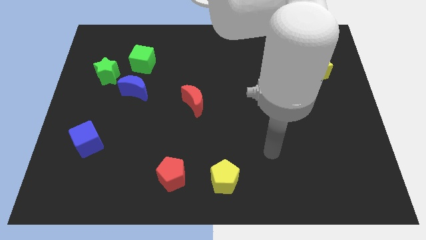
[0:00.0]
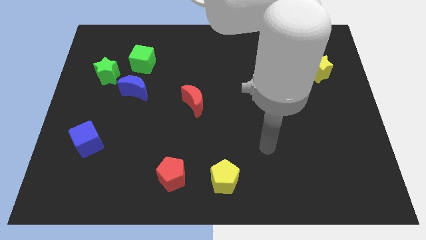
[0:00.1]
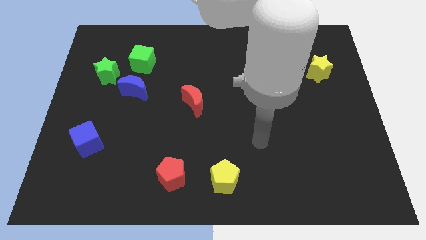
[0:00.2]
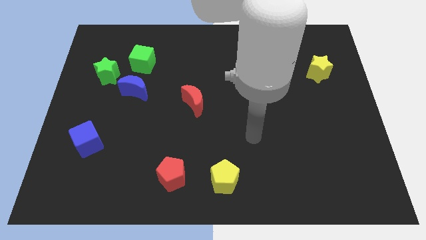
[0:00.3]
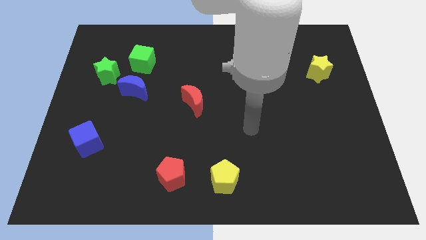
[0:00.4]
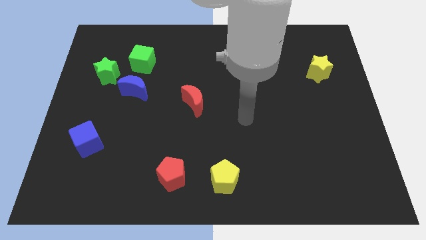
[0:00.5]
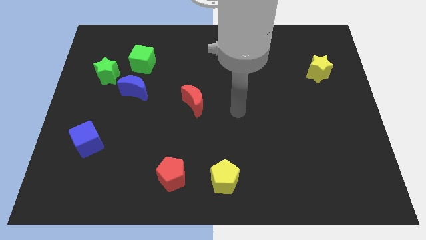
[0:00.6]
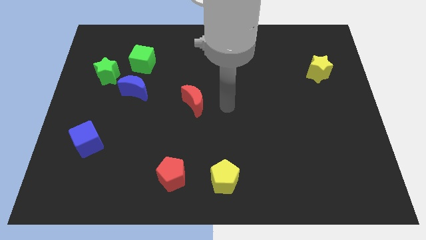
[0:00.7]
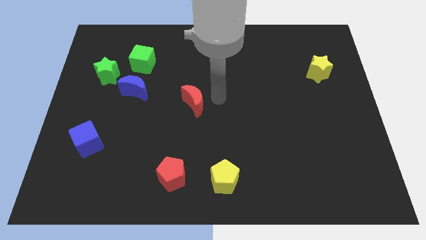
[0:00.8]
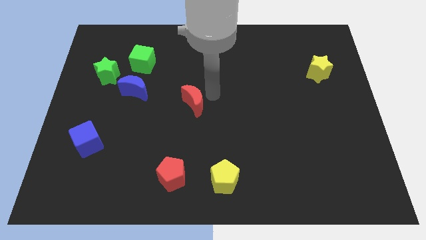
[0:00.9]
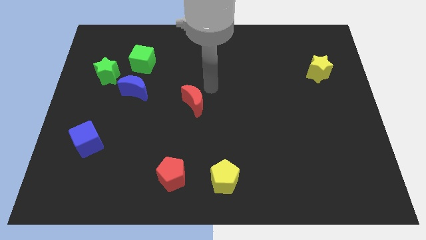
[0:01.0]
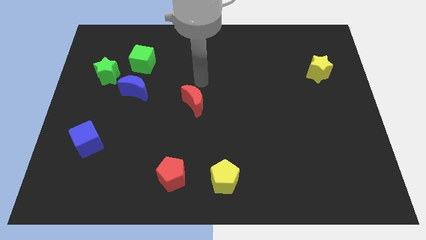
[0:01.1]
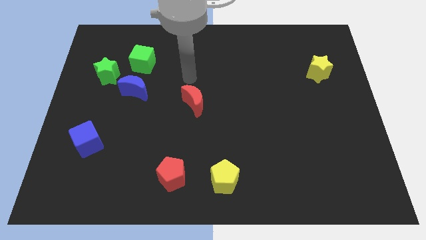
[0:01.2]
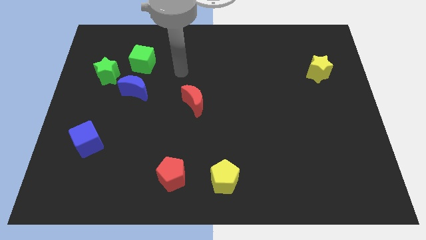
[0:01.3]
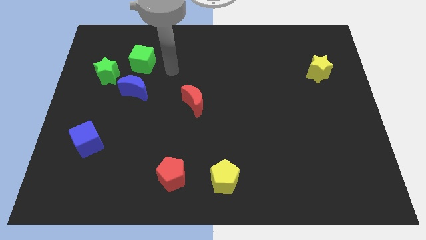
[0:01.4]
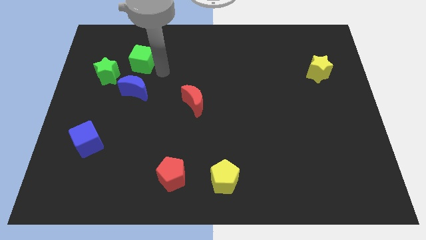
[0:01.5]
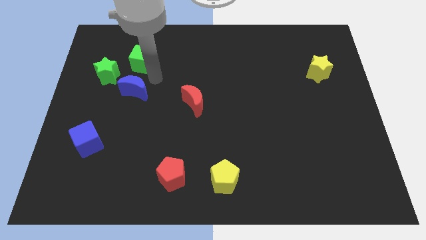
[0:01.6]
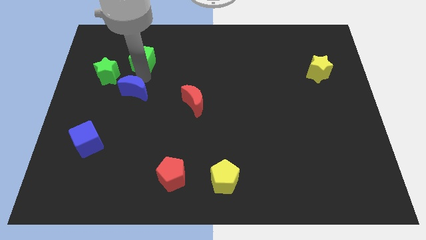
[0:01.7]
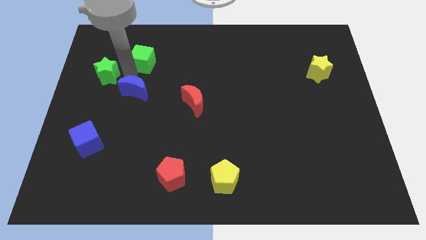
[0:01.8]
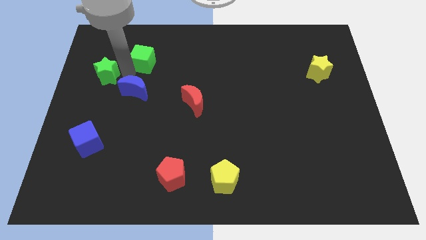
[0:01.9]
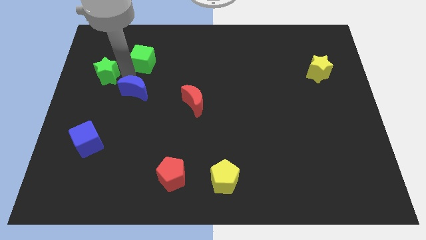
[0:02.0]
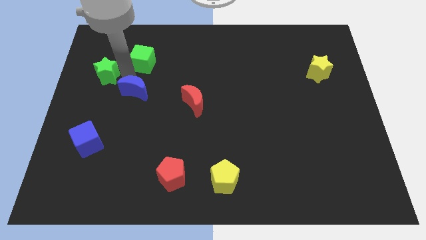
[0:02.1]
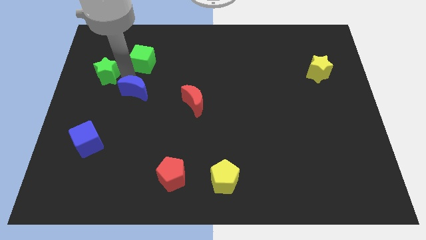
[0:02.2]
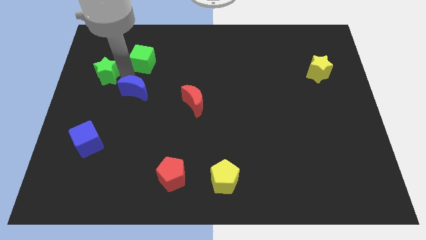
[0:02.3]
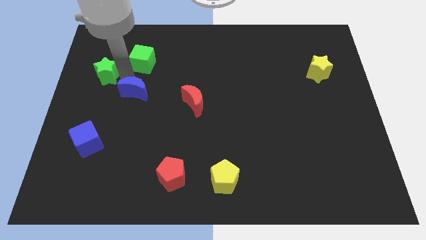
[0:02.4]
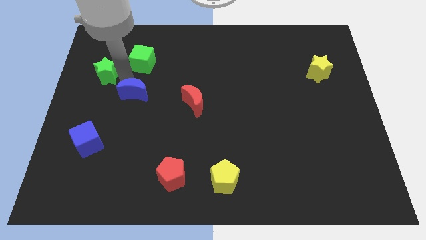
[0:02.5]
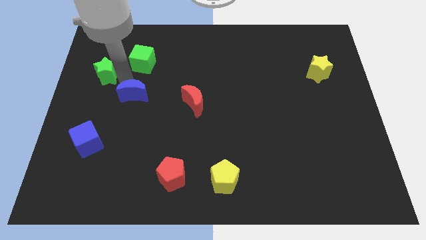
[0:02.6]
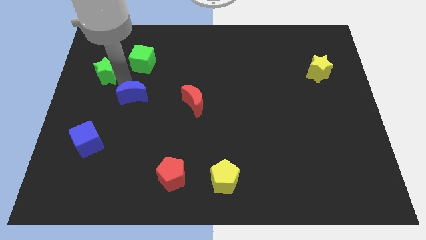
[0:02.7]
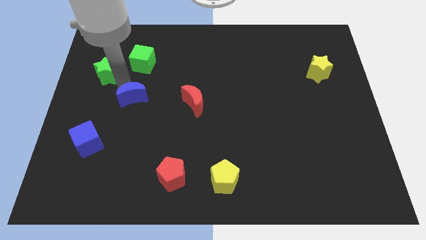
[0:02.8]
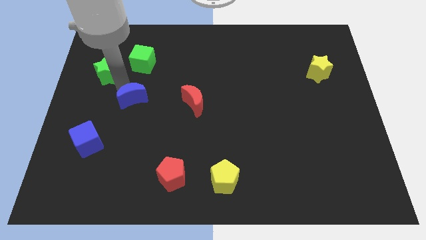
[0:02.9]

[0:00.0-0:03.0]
move the blue moon away from the green star and green cube

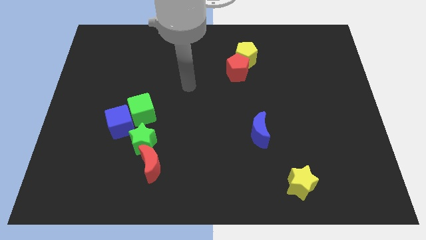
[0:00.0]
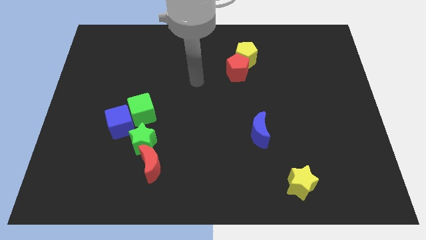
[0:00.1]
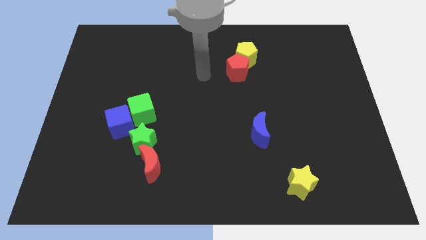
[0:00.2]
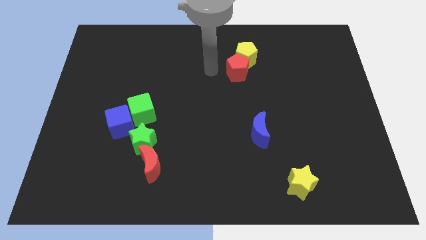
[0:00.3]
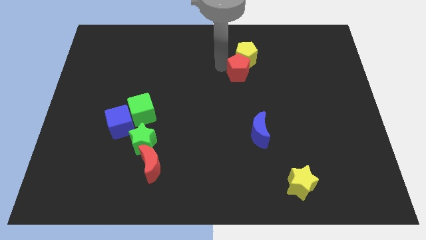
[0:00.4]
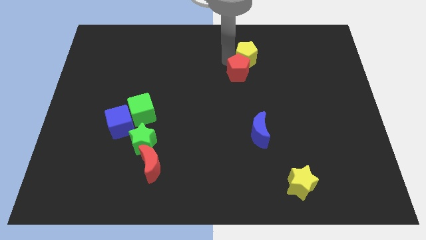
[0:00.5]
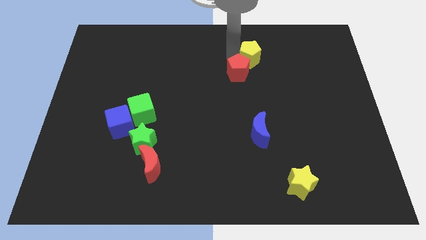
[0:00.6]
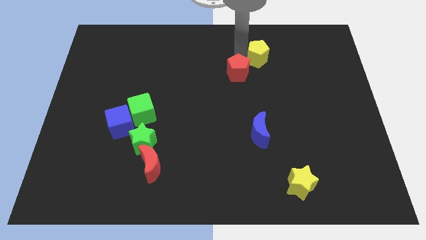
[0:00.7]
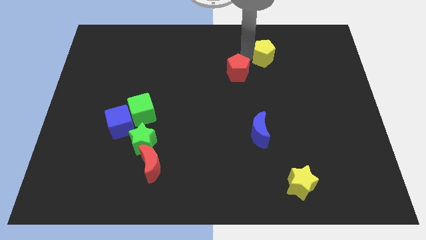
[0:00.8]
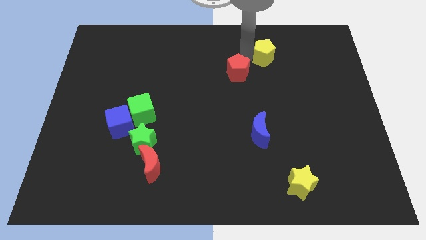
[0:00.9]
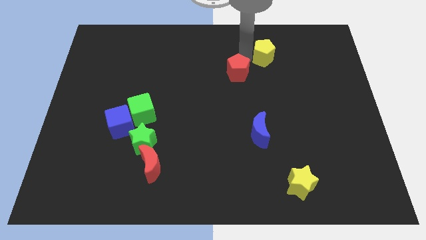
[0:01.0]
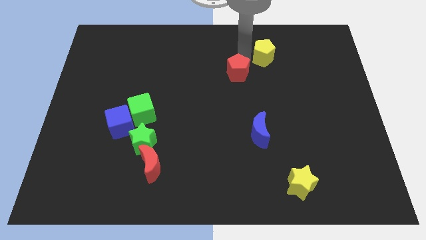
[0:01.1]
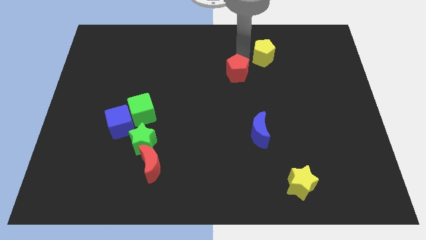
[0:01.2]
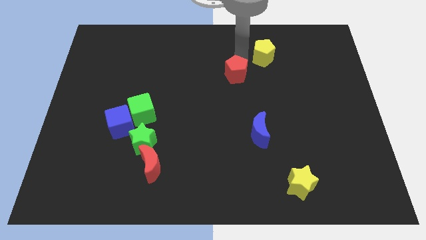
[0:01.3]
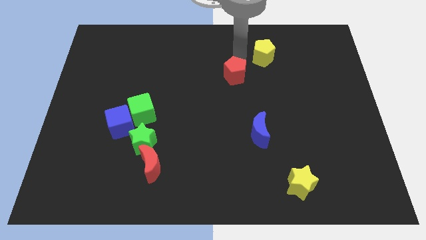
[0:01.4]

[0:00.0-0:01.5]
separate the red pentagon from the yellow pentagon

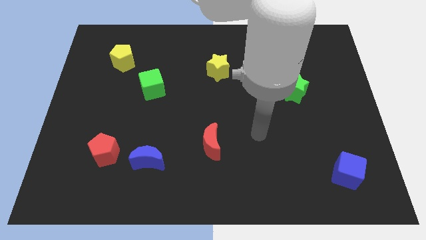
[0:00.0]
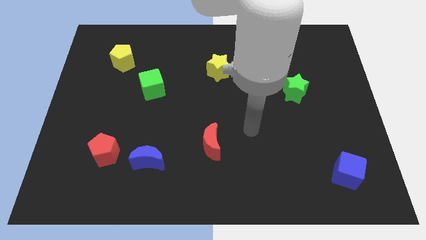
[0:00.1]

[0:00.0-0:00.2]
pull the red pentagon apart from the blue moon

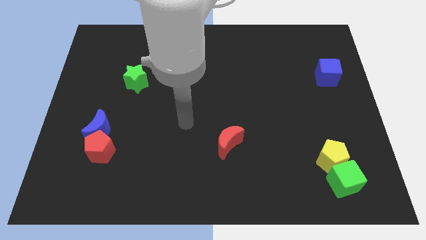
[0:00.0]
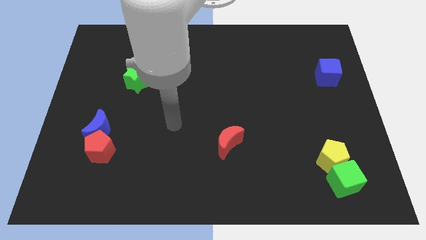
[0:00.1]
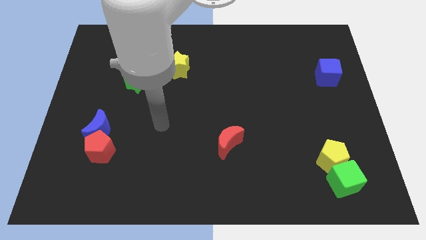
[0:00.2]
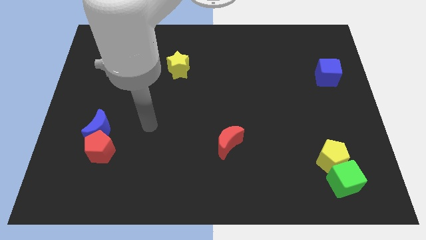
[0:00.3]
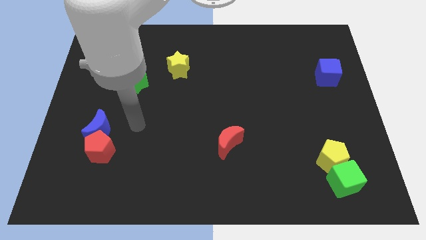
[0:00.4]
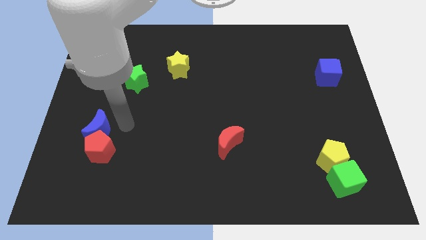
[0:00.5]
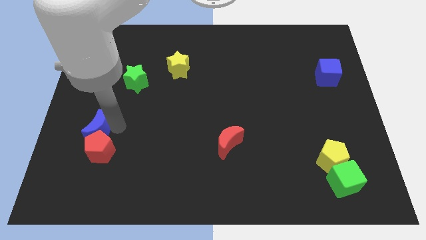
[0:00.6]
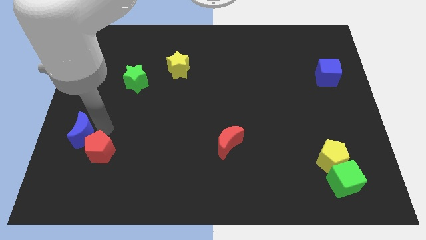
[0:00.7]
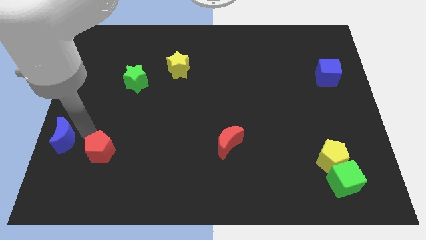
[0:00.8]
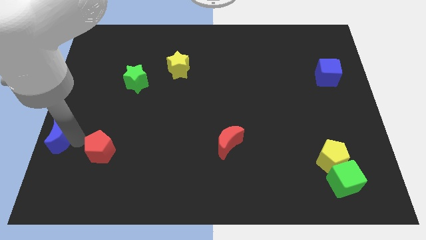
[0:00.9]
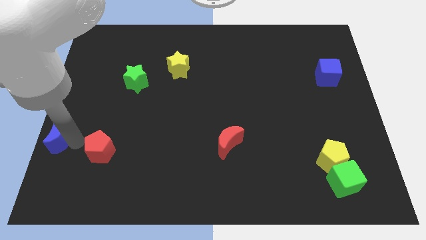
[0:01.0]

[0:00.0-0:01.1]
move the red pentagon away from the blue moon

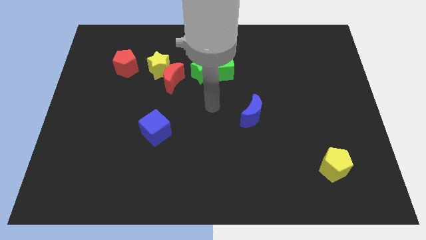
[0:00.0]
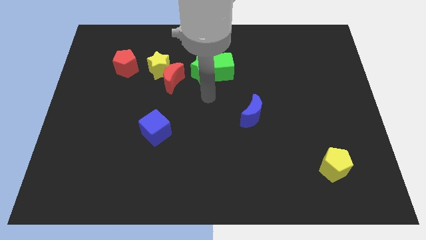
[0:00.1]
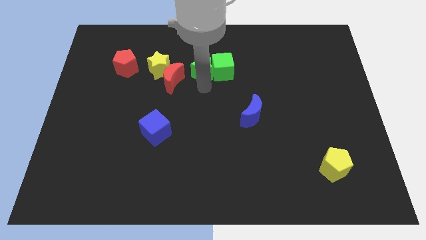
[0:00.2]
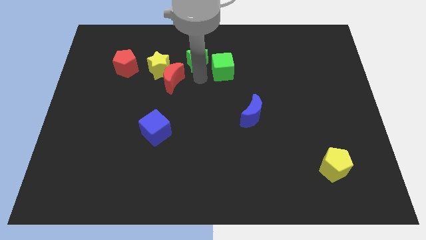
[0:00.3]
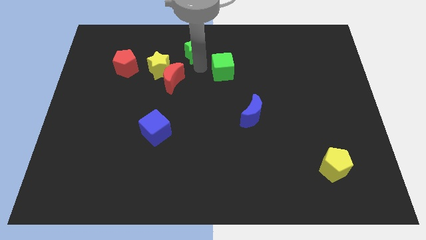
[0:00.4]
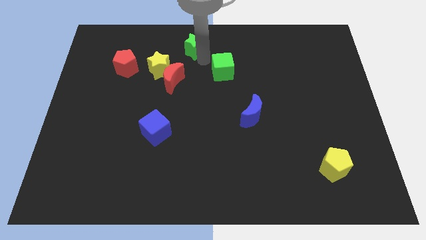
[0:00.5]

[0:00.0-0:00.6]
pull the green cube apart from the green star

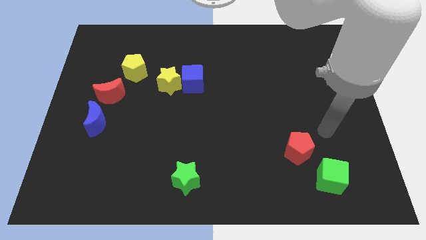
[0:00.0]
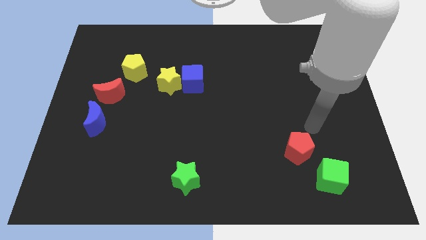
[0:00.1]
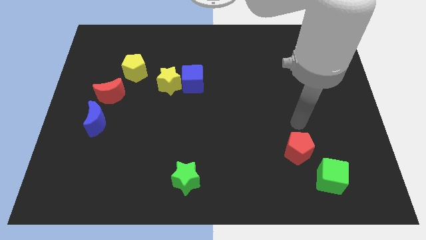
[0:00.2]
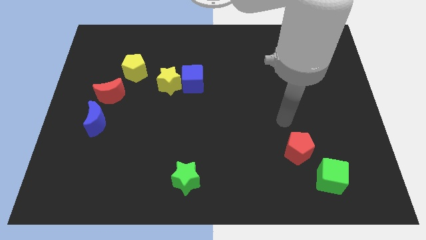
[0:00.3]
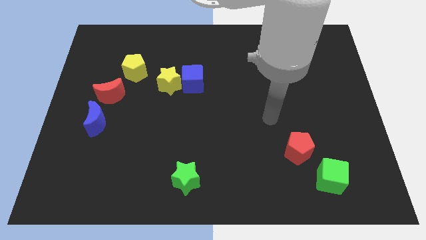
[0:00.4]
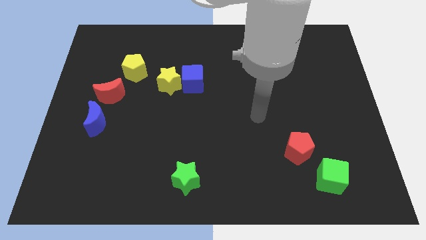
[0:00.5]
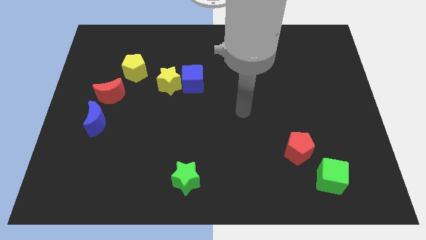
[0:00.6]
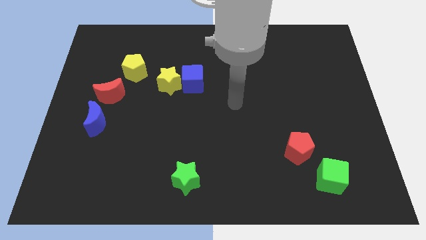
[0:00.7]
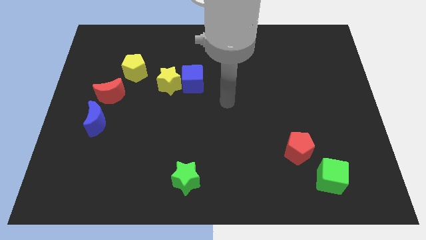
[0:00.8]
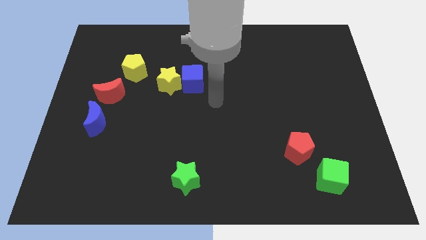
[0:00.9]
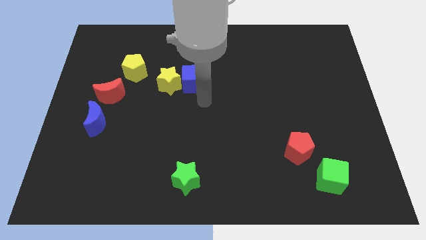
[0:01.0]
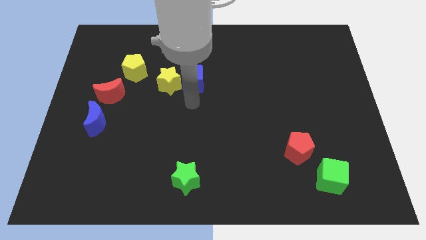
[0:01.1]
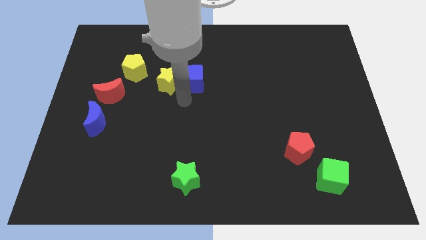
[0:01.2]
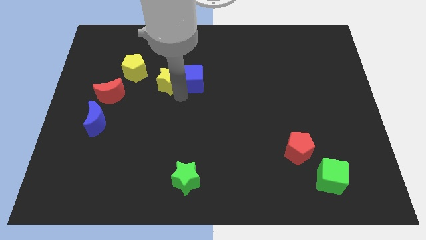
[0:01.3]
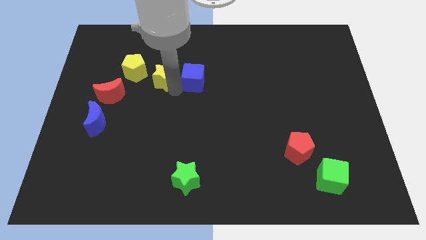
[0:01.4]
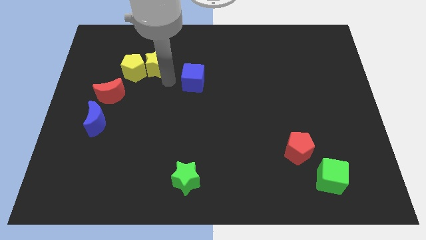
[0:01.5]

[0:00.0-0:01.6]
move the blue cube away from the yellow star

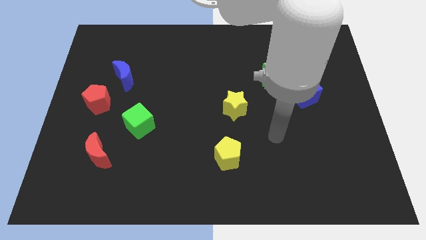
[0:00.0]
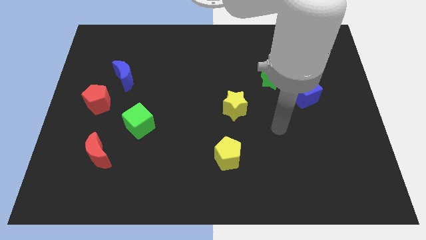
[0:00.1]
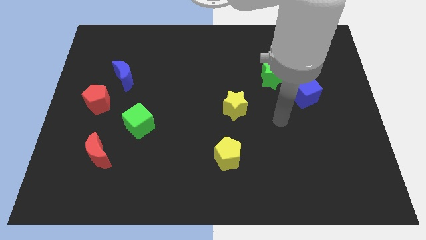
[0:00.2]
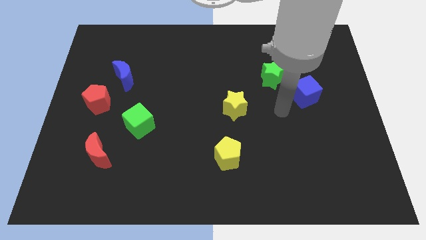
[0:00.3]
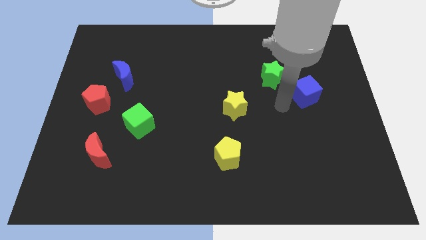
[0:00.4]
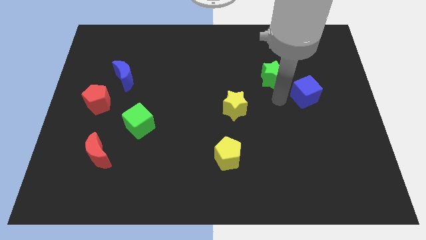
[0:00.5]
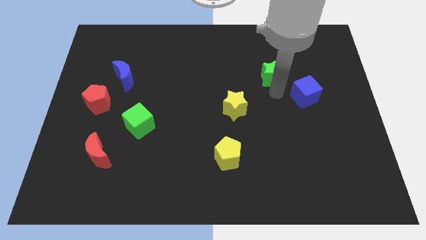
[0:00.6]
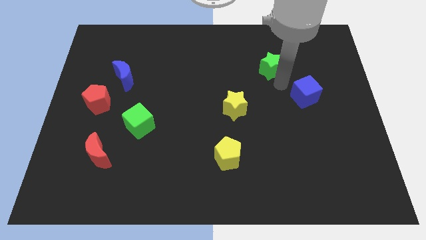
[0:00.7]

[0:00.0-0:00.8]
move the blue cube away from the green star

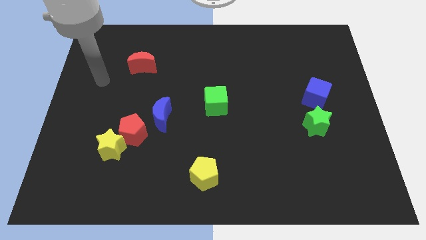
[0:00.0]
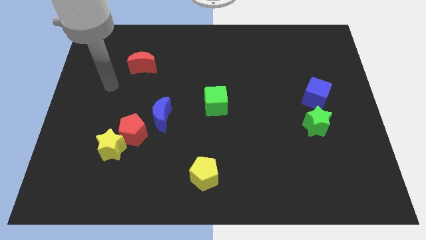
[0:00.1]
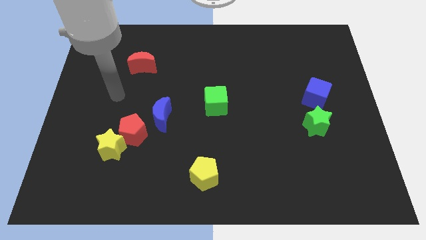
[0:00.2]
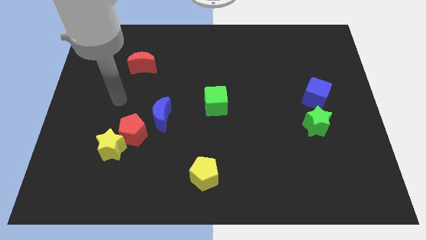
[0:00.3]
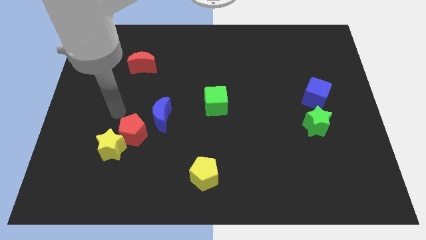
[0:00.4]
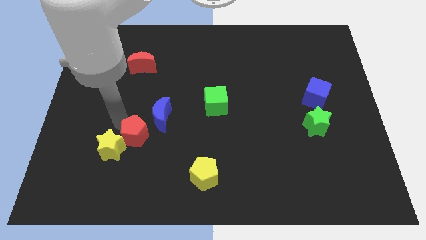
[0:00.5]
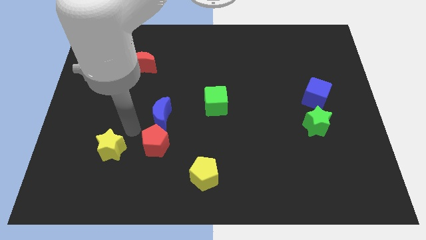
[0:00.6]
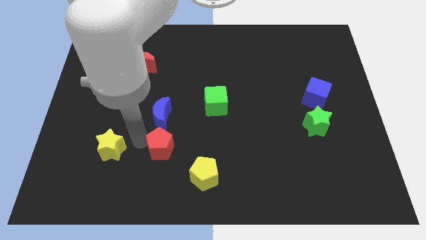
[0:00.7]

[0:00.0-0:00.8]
pull the yellow star apart from the red pentagon
